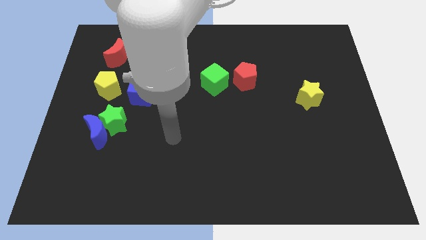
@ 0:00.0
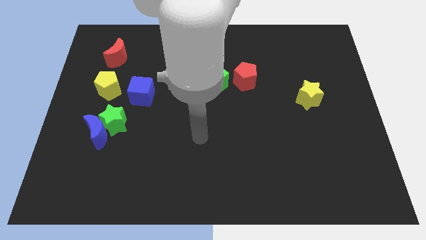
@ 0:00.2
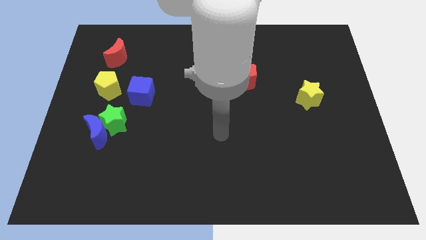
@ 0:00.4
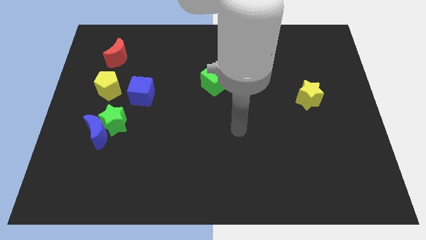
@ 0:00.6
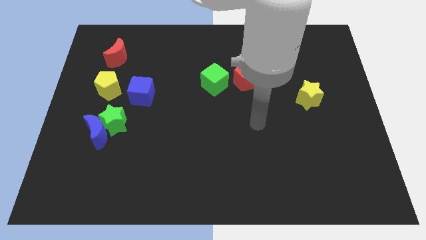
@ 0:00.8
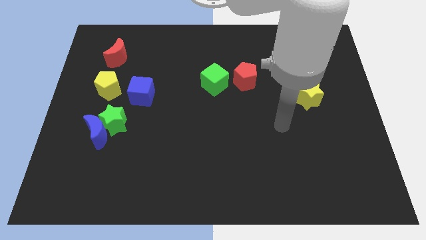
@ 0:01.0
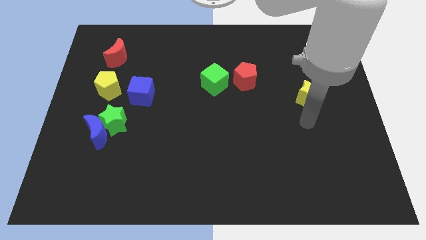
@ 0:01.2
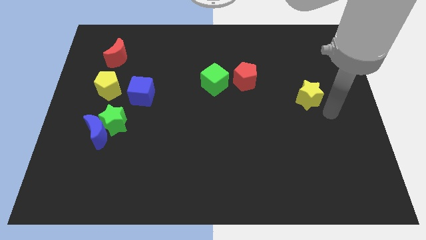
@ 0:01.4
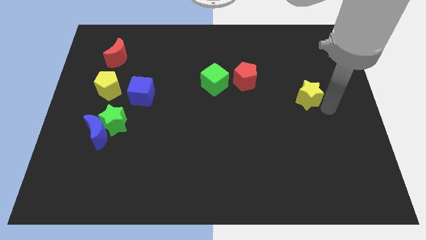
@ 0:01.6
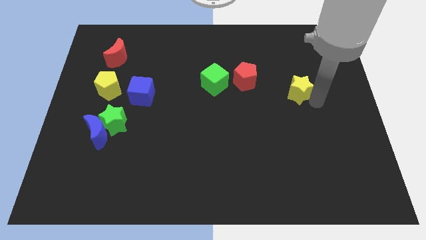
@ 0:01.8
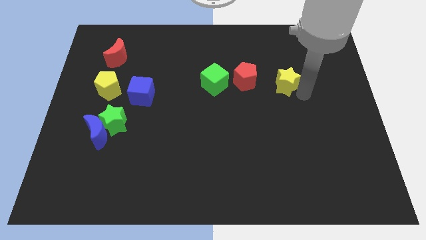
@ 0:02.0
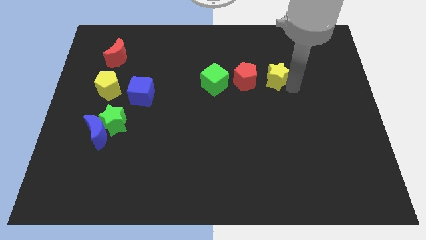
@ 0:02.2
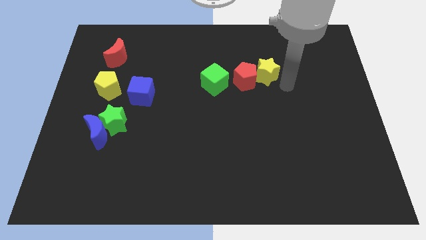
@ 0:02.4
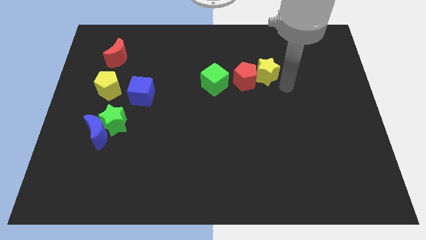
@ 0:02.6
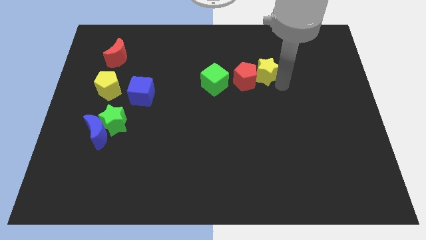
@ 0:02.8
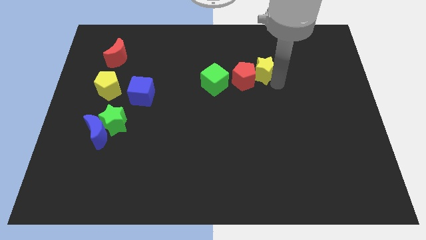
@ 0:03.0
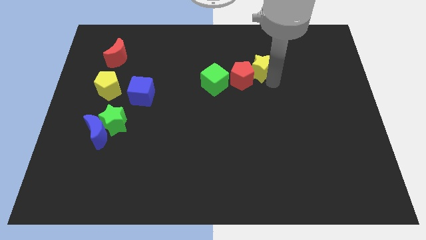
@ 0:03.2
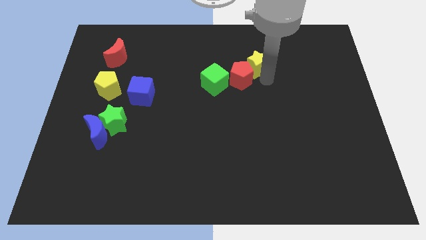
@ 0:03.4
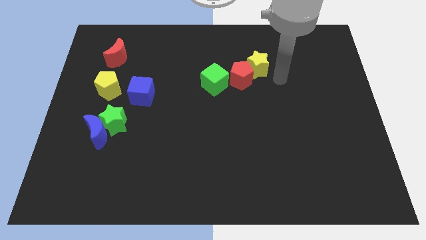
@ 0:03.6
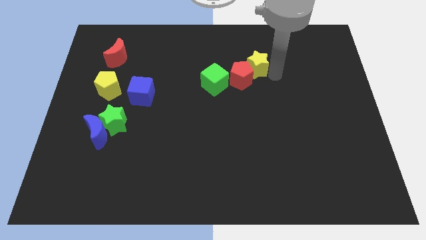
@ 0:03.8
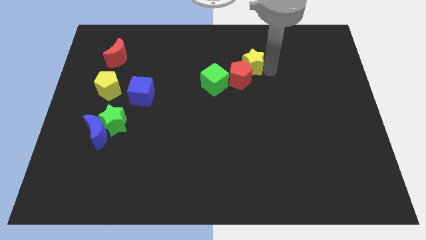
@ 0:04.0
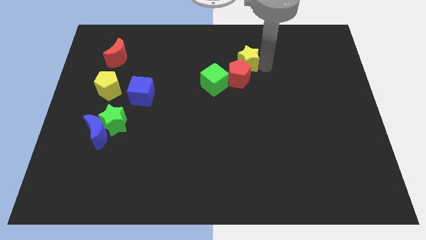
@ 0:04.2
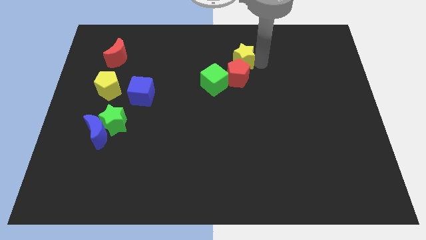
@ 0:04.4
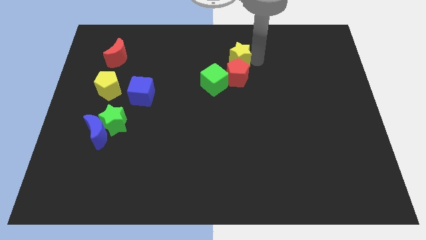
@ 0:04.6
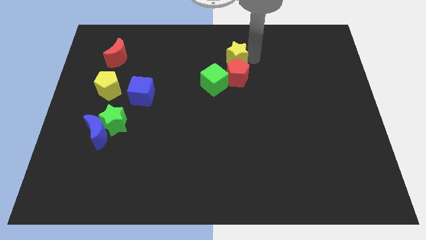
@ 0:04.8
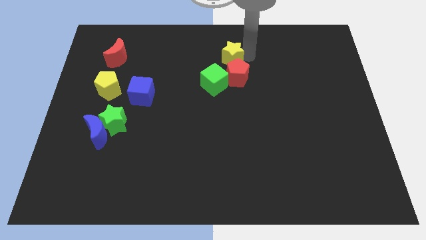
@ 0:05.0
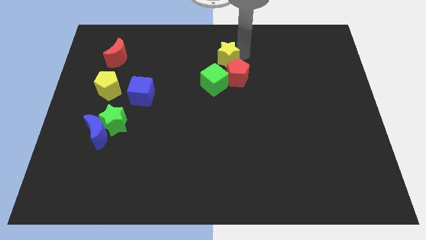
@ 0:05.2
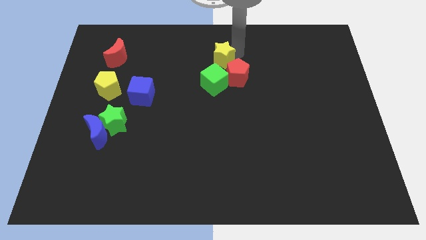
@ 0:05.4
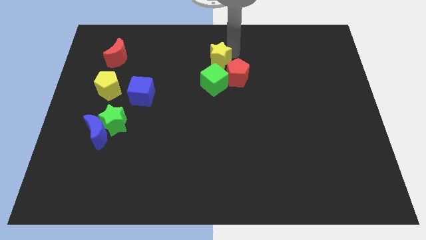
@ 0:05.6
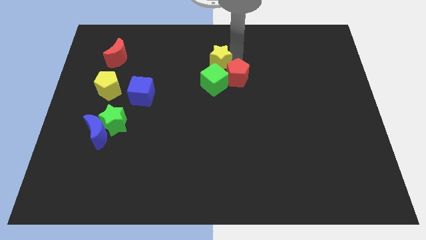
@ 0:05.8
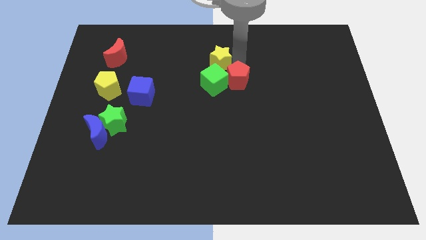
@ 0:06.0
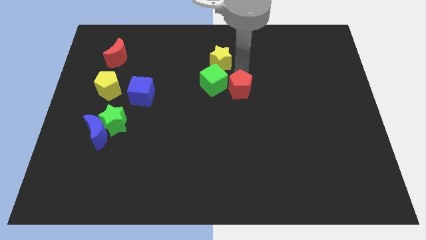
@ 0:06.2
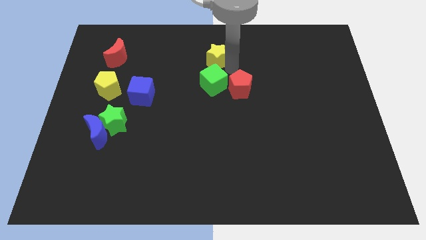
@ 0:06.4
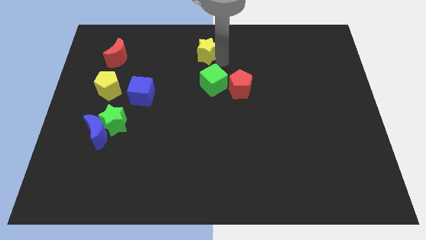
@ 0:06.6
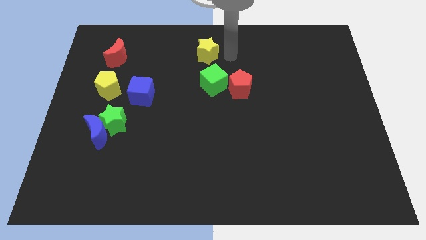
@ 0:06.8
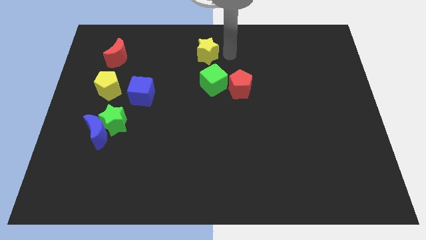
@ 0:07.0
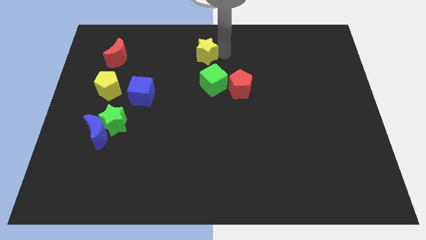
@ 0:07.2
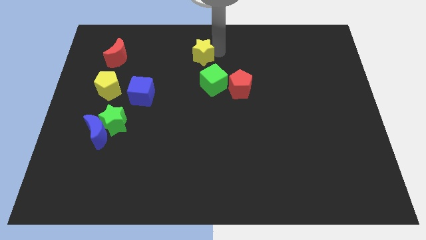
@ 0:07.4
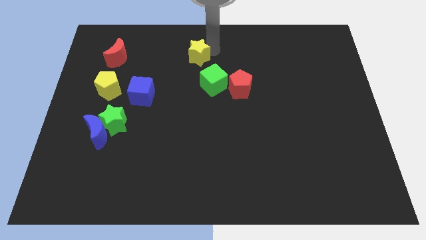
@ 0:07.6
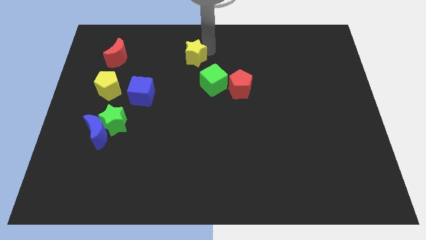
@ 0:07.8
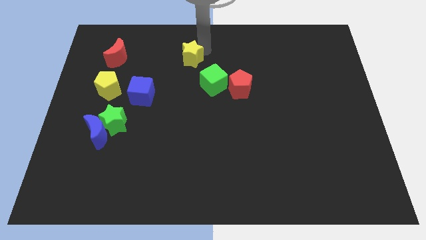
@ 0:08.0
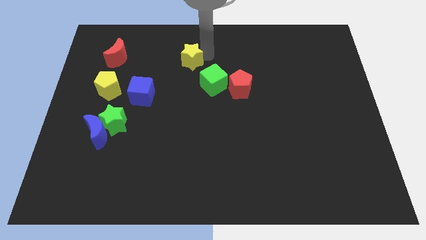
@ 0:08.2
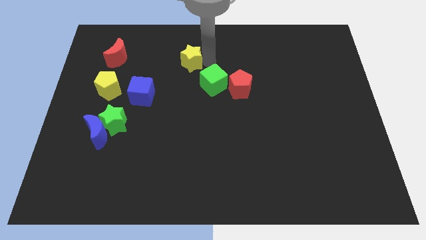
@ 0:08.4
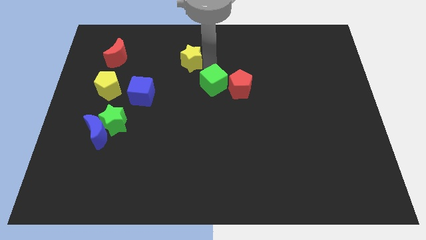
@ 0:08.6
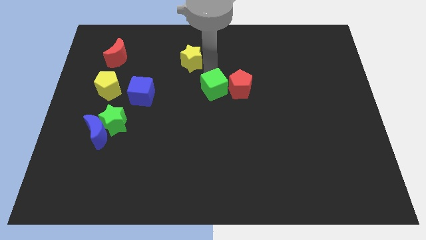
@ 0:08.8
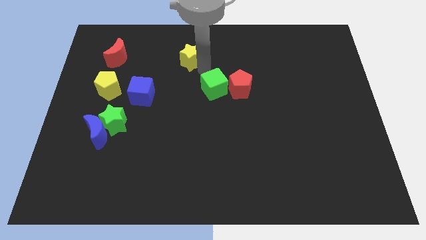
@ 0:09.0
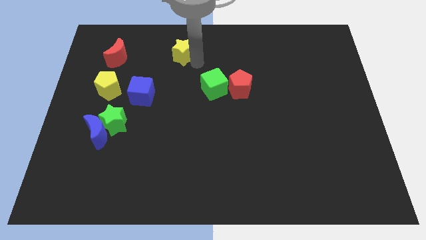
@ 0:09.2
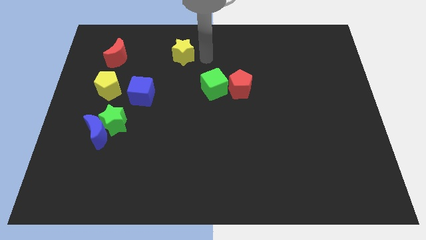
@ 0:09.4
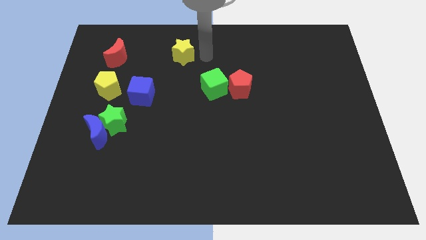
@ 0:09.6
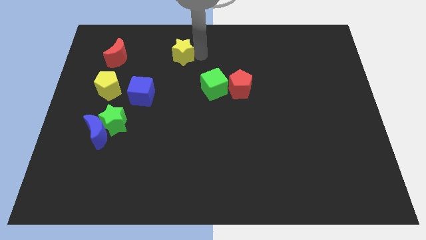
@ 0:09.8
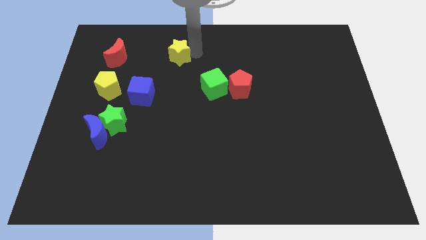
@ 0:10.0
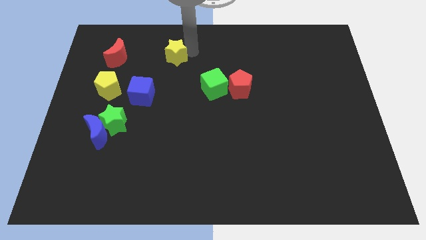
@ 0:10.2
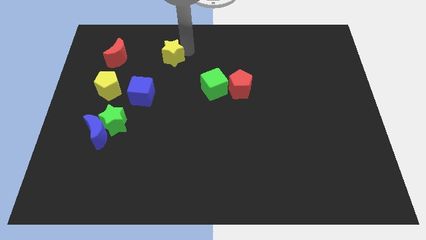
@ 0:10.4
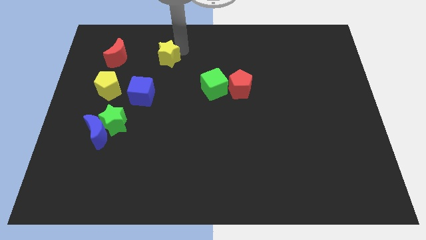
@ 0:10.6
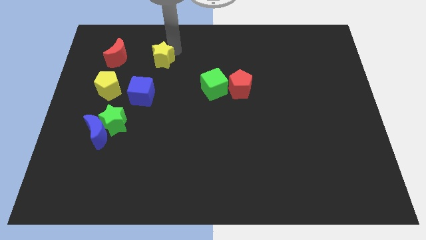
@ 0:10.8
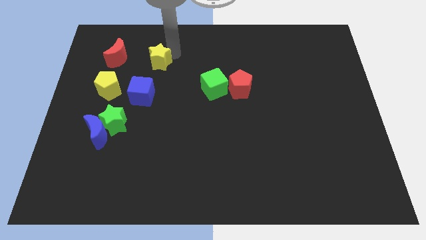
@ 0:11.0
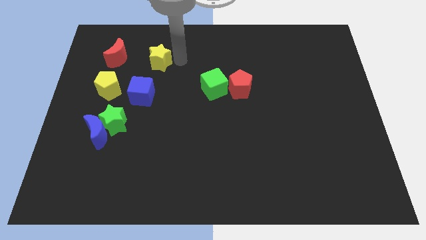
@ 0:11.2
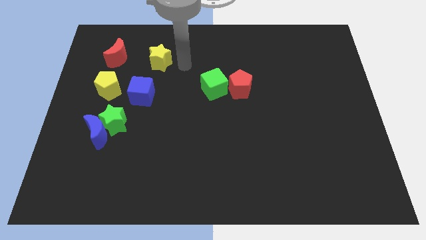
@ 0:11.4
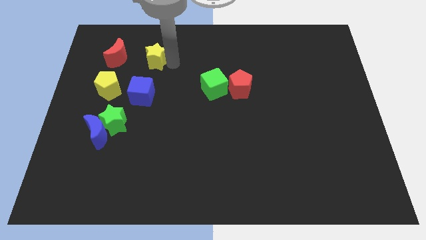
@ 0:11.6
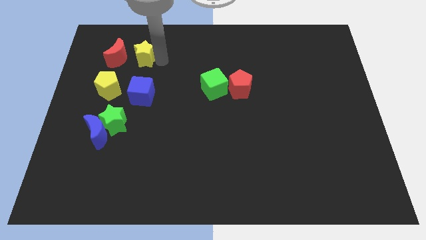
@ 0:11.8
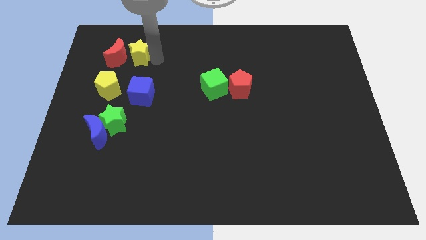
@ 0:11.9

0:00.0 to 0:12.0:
push the yellow star to the red moon

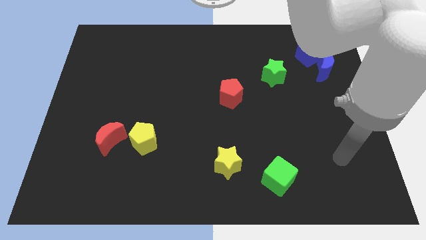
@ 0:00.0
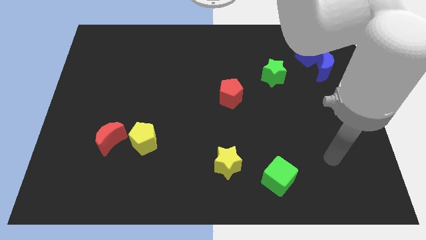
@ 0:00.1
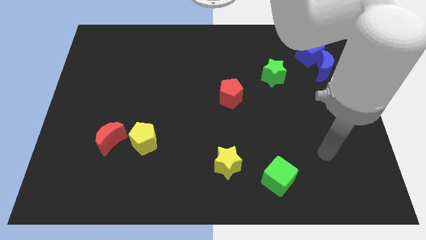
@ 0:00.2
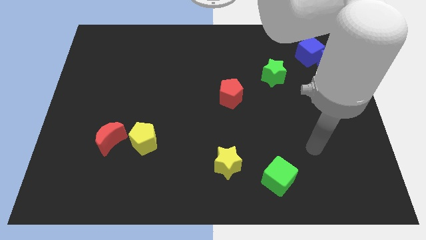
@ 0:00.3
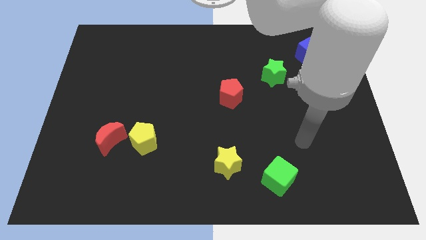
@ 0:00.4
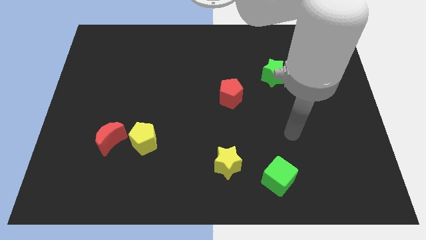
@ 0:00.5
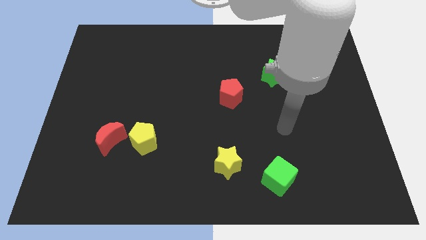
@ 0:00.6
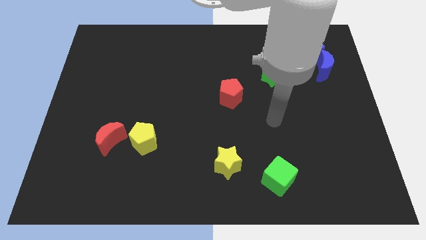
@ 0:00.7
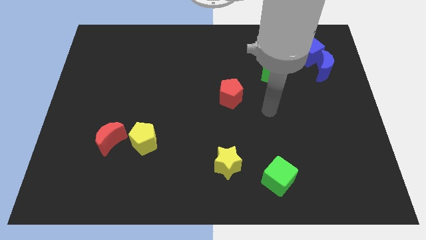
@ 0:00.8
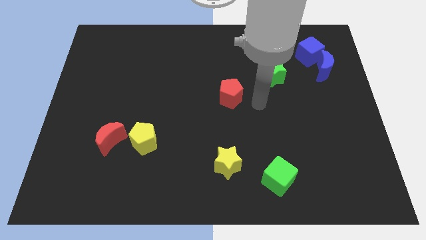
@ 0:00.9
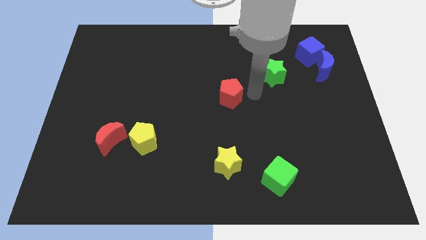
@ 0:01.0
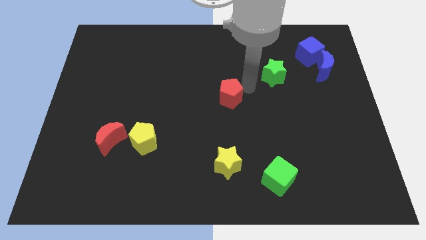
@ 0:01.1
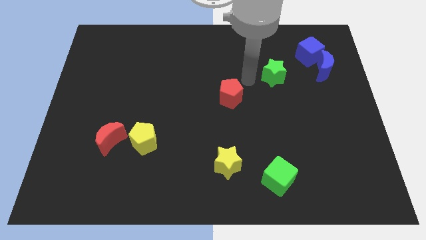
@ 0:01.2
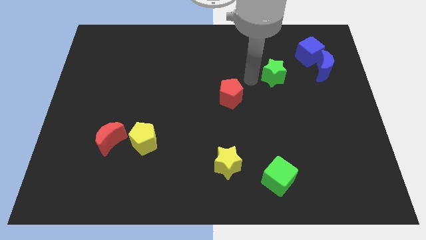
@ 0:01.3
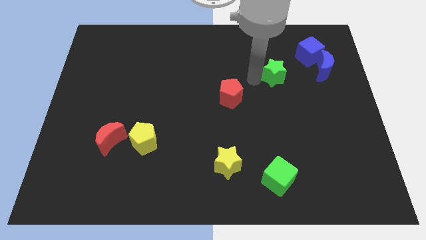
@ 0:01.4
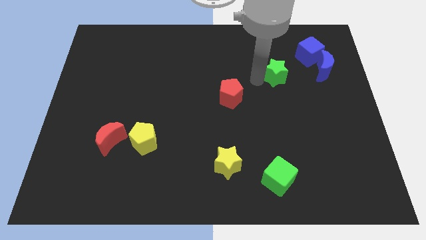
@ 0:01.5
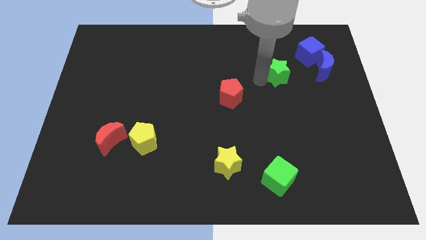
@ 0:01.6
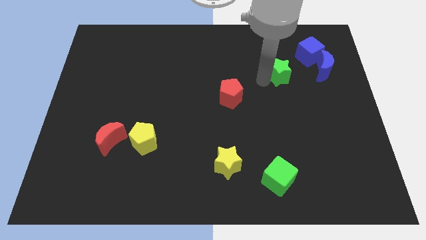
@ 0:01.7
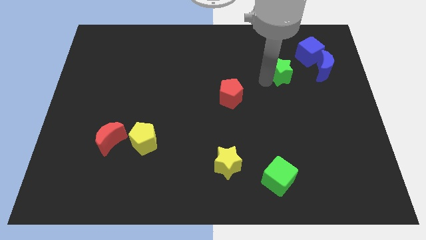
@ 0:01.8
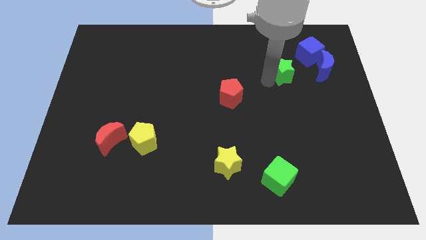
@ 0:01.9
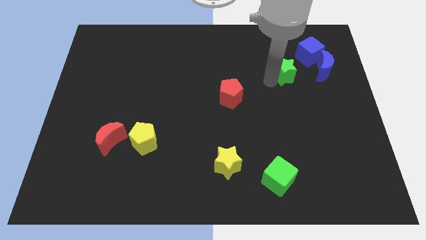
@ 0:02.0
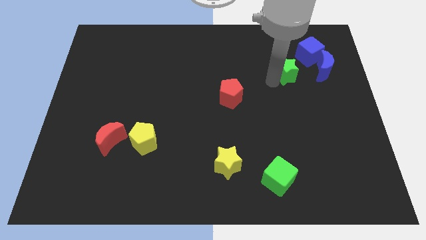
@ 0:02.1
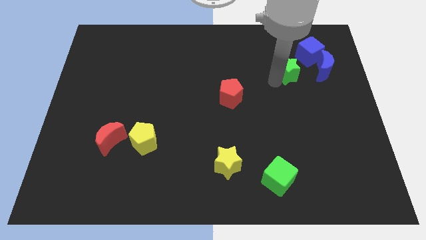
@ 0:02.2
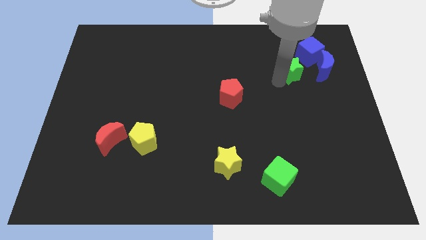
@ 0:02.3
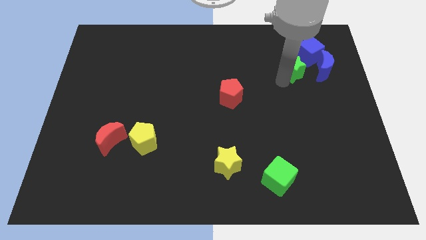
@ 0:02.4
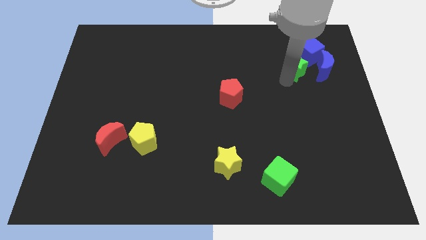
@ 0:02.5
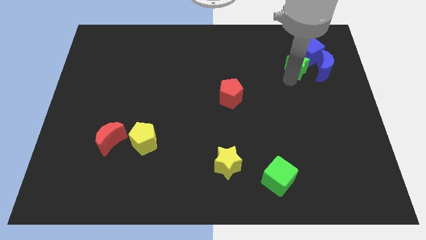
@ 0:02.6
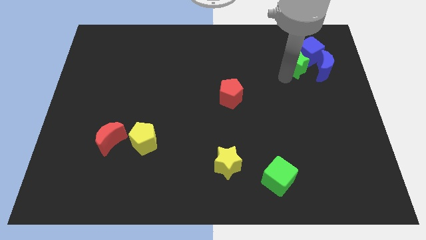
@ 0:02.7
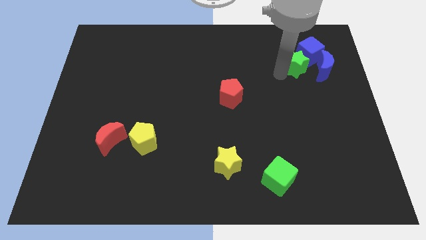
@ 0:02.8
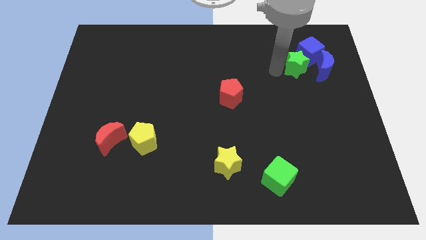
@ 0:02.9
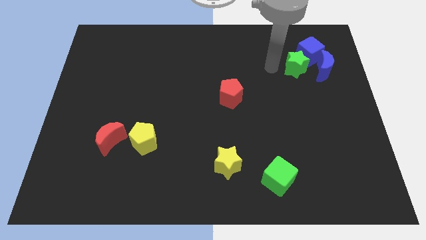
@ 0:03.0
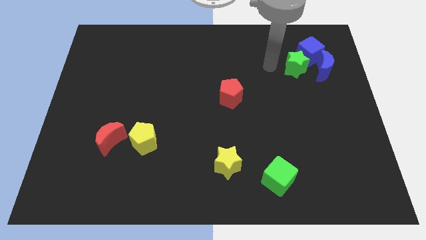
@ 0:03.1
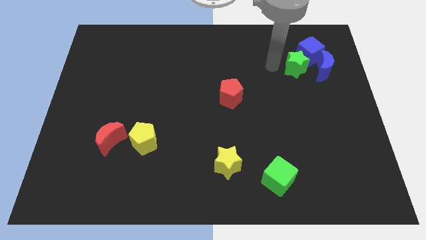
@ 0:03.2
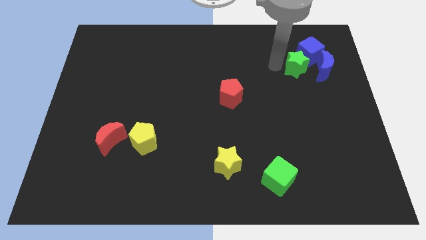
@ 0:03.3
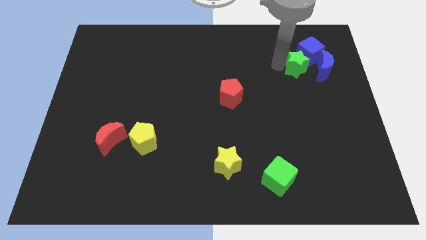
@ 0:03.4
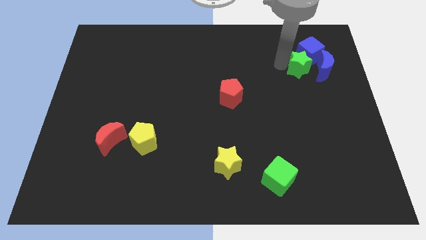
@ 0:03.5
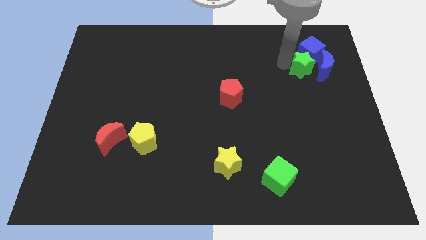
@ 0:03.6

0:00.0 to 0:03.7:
push the green star towards the blue moon
